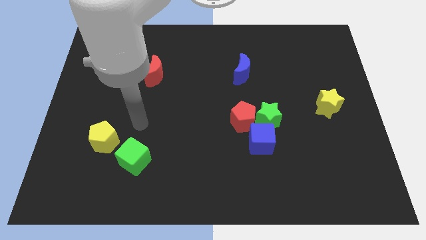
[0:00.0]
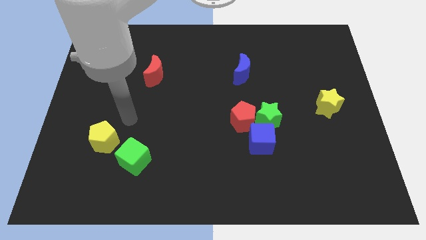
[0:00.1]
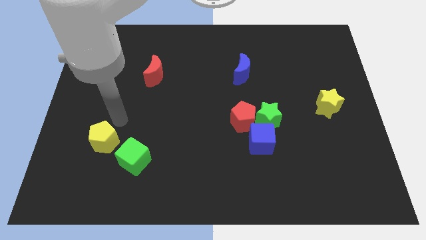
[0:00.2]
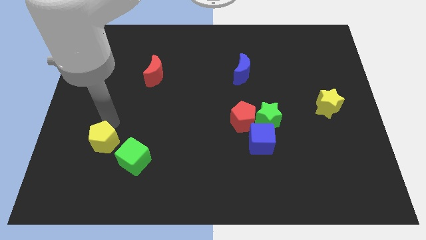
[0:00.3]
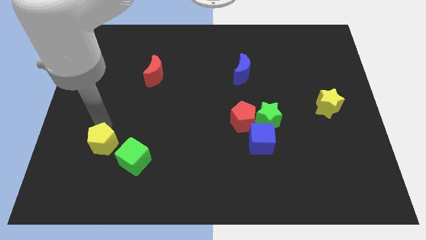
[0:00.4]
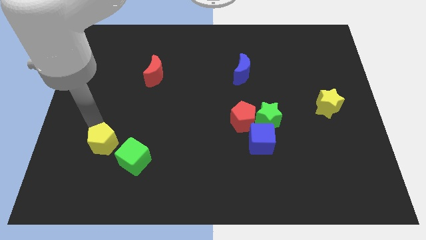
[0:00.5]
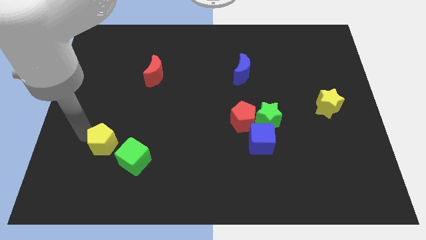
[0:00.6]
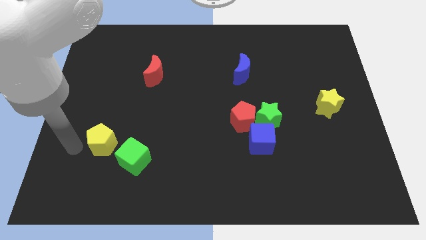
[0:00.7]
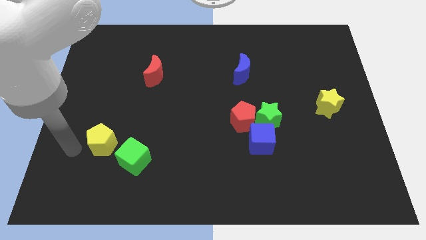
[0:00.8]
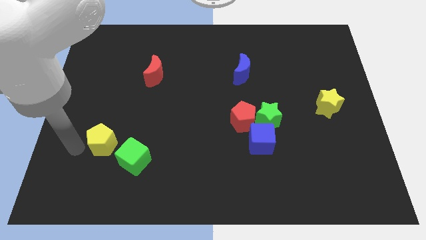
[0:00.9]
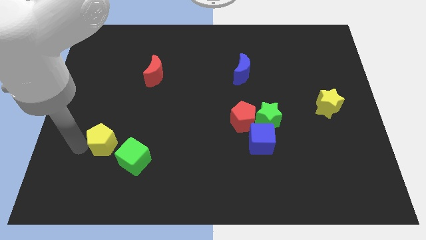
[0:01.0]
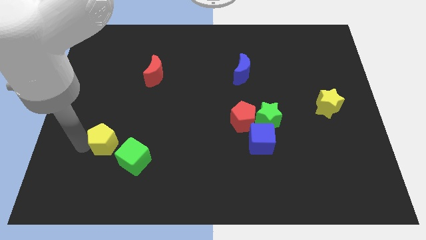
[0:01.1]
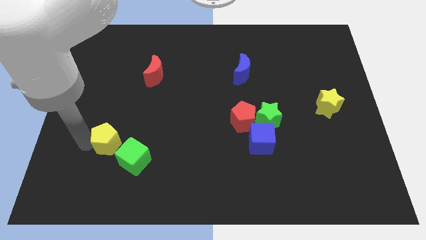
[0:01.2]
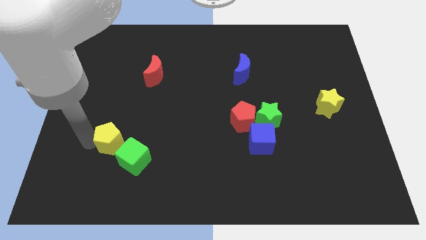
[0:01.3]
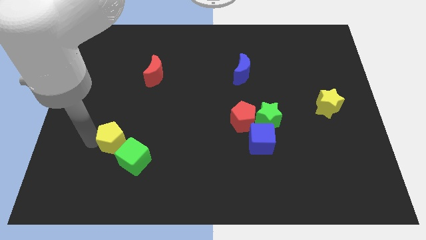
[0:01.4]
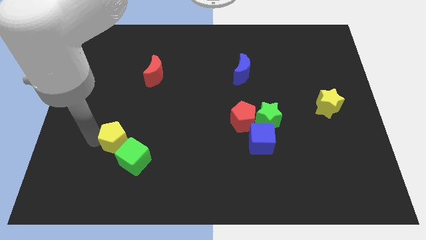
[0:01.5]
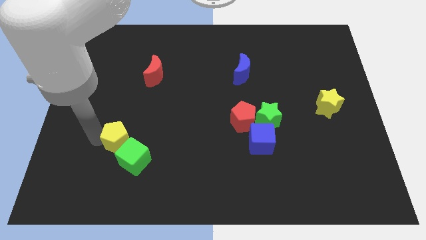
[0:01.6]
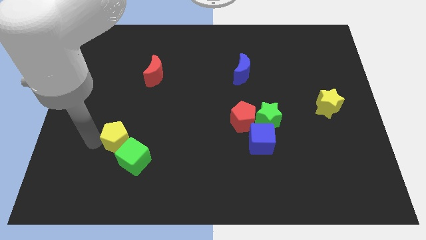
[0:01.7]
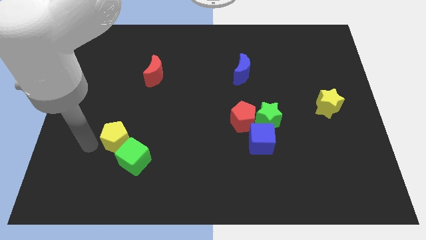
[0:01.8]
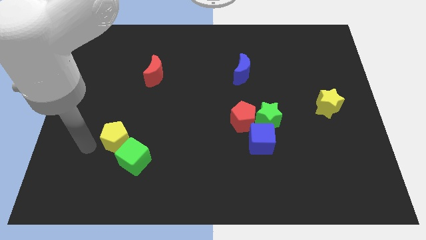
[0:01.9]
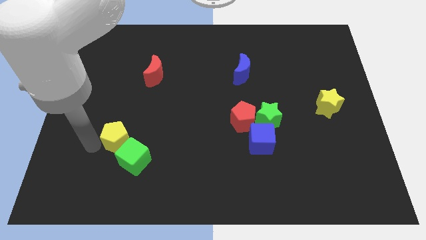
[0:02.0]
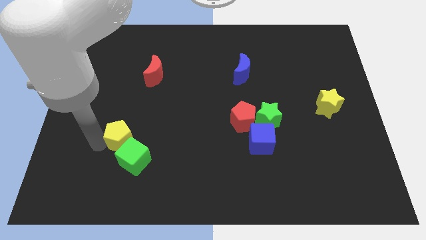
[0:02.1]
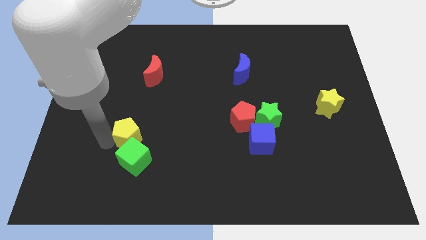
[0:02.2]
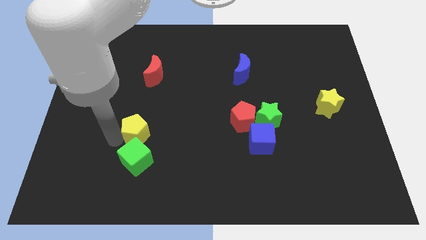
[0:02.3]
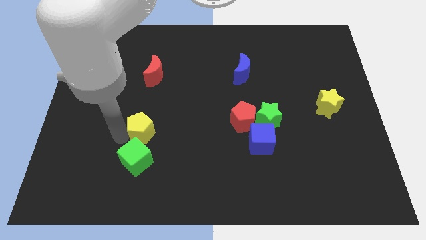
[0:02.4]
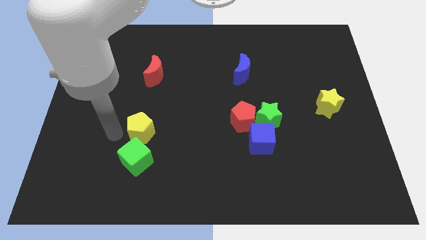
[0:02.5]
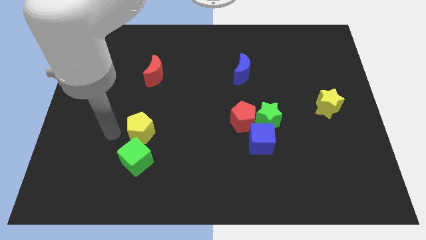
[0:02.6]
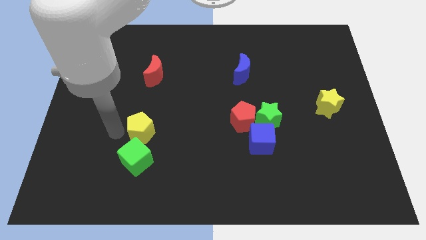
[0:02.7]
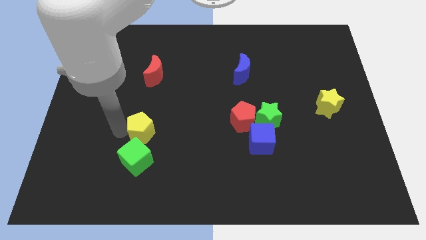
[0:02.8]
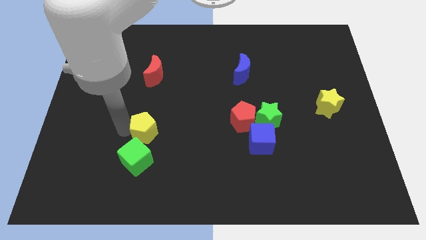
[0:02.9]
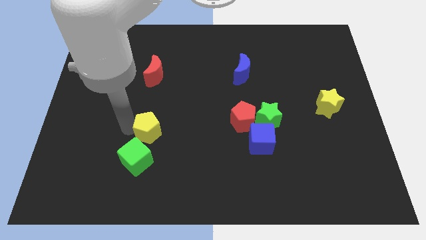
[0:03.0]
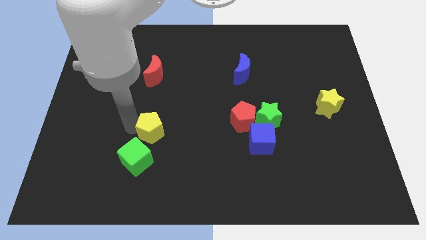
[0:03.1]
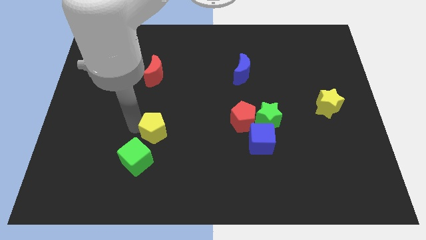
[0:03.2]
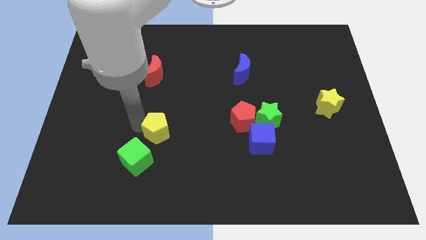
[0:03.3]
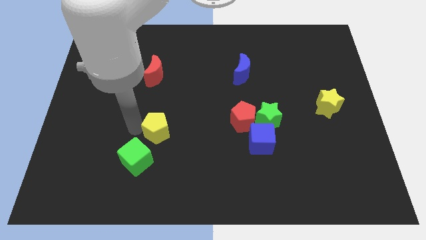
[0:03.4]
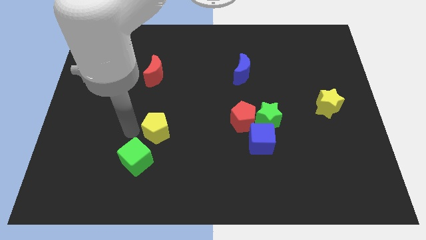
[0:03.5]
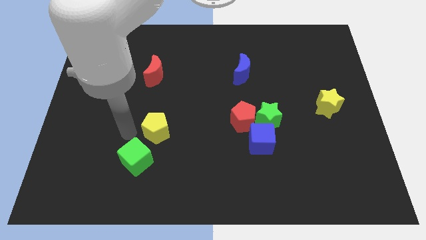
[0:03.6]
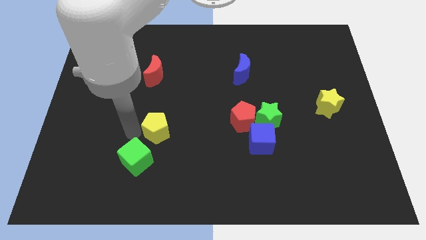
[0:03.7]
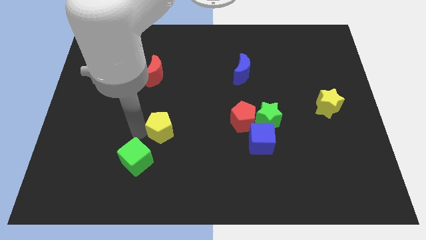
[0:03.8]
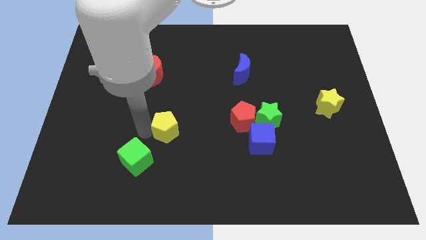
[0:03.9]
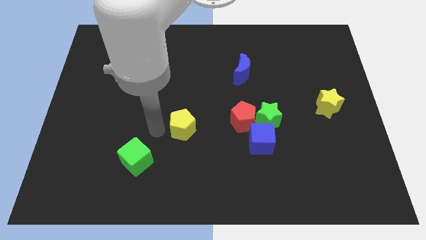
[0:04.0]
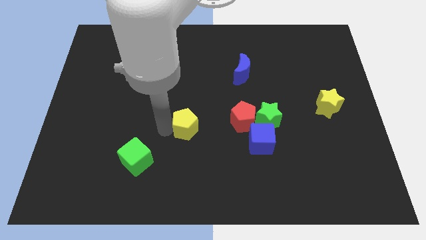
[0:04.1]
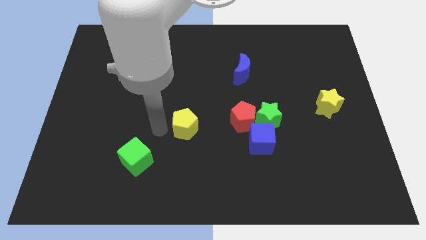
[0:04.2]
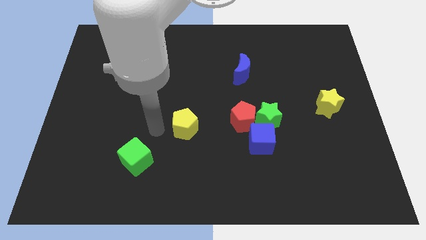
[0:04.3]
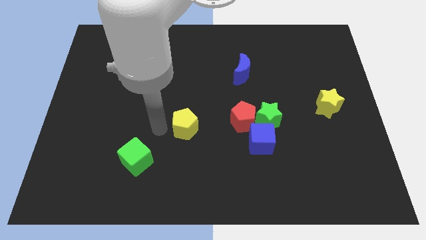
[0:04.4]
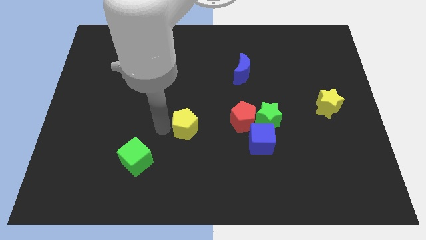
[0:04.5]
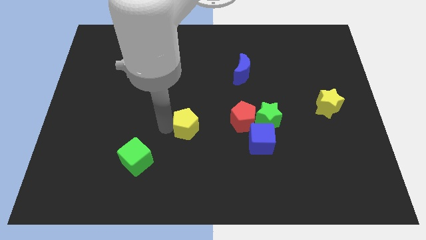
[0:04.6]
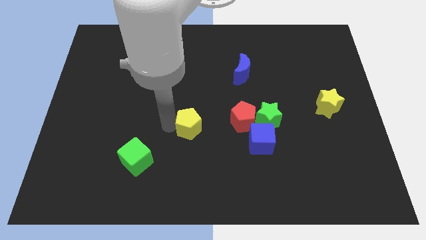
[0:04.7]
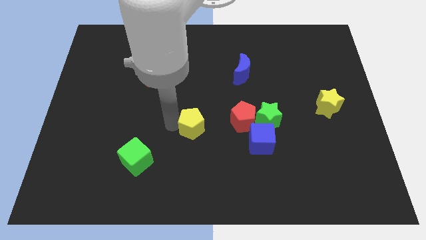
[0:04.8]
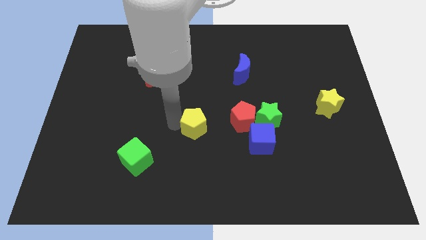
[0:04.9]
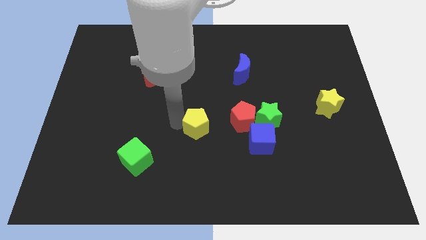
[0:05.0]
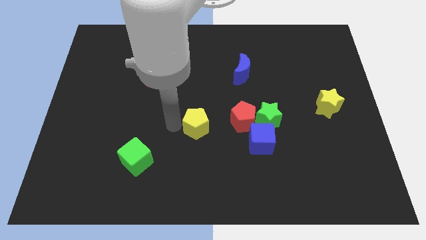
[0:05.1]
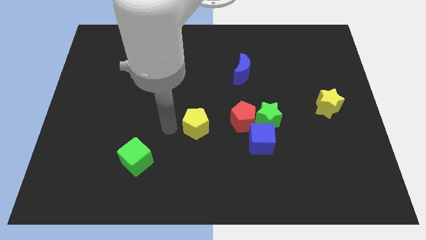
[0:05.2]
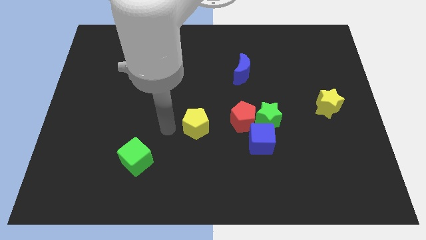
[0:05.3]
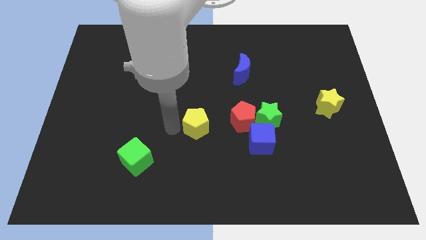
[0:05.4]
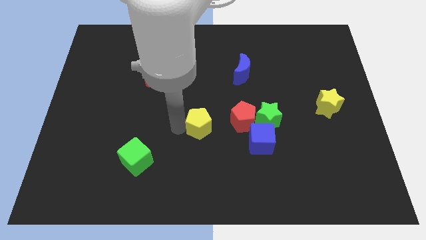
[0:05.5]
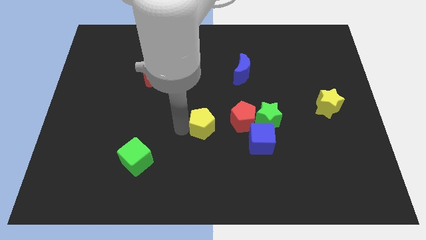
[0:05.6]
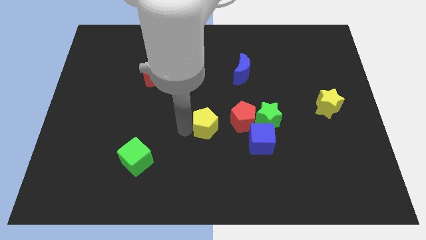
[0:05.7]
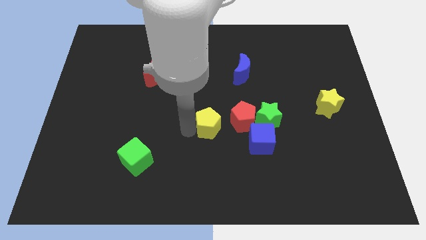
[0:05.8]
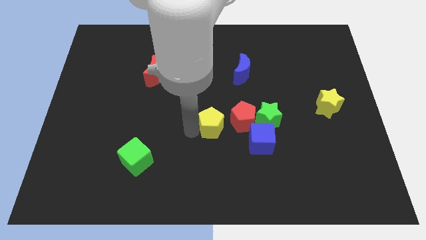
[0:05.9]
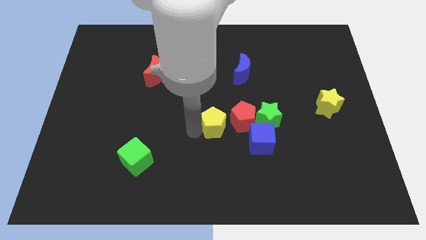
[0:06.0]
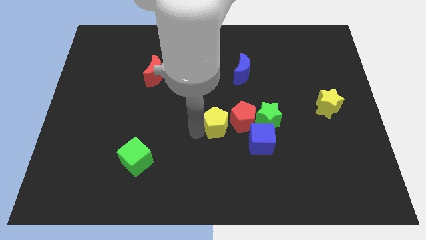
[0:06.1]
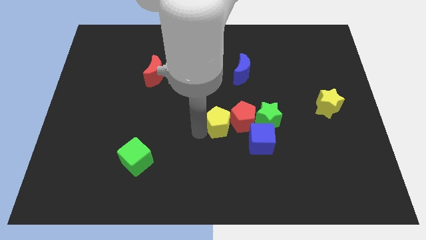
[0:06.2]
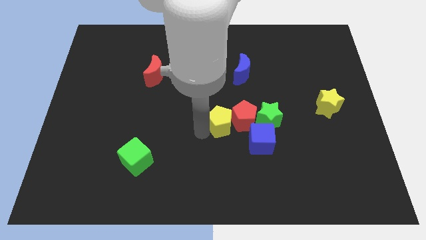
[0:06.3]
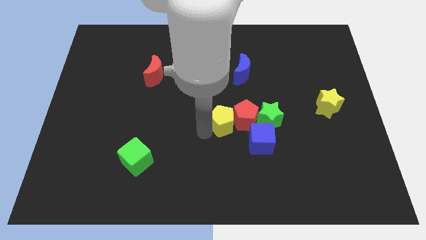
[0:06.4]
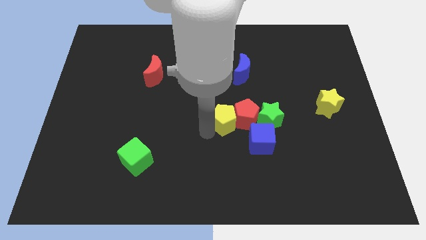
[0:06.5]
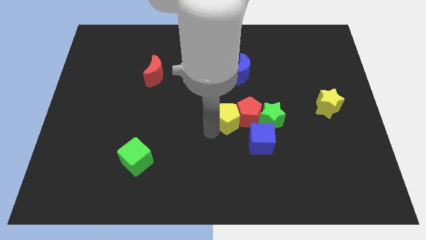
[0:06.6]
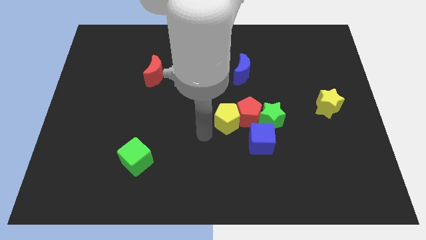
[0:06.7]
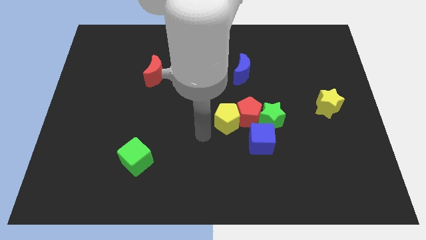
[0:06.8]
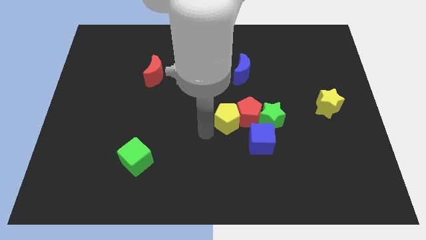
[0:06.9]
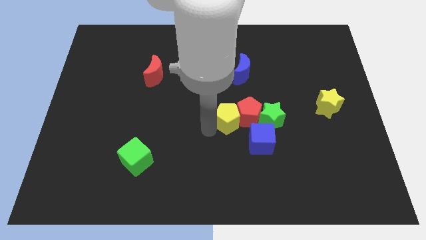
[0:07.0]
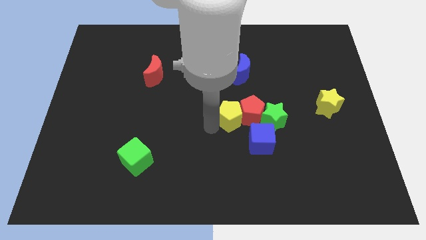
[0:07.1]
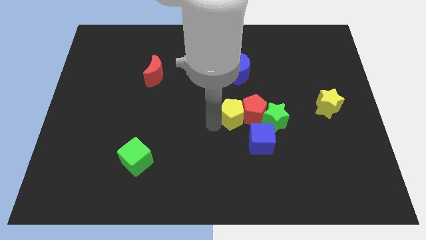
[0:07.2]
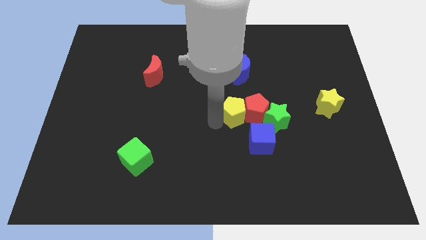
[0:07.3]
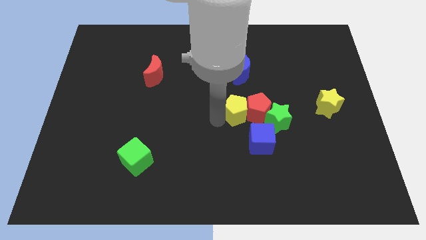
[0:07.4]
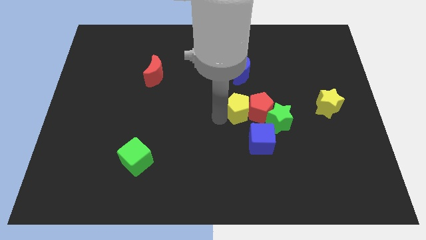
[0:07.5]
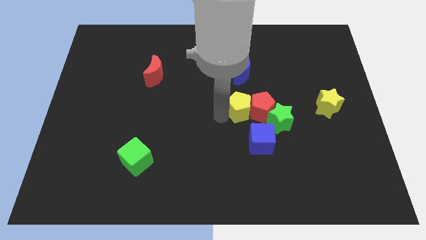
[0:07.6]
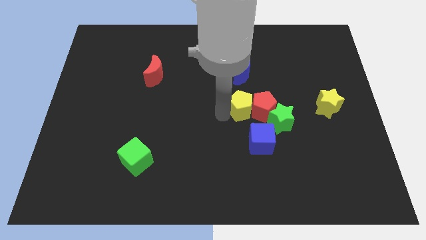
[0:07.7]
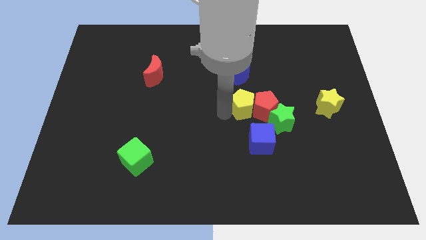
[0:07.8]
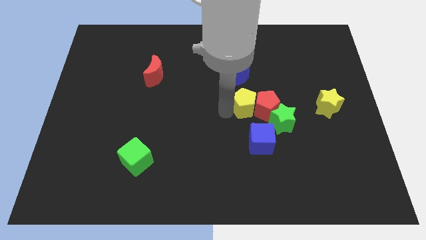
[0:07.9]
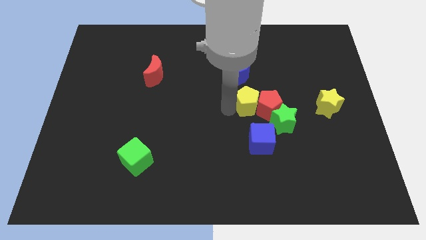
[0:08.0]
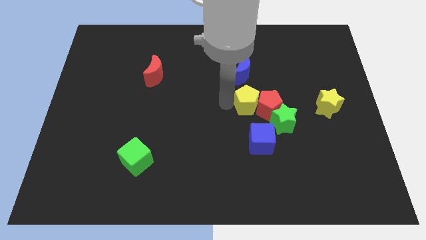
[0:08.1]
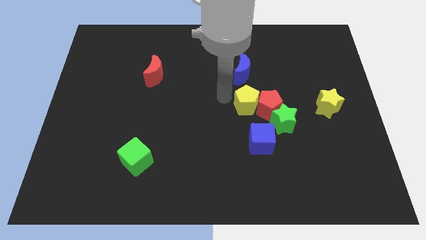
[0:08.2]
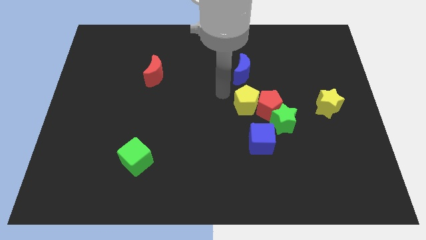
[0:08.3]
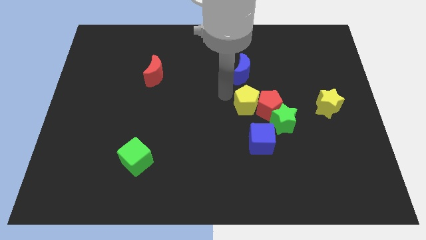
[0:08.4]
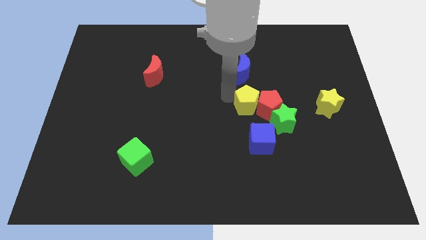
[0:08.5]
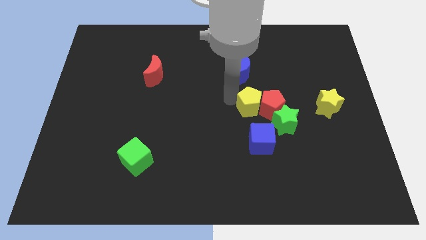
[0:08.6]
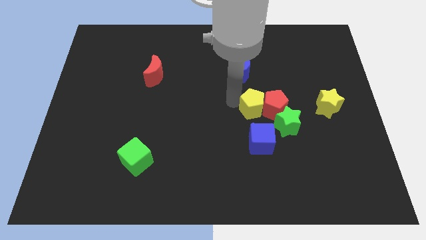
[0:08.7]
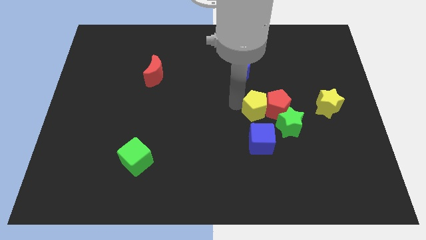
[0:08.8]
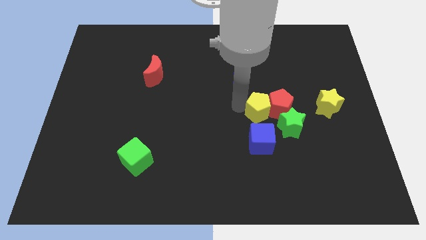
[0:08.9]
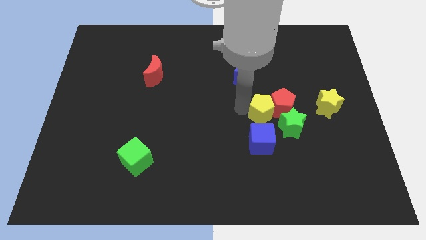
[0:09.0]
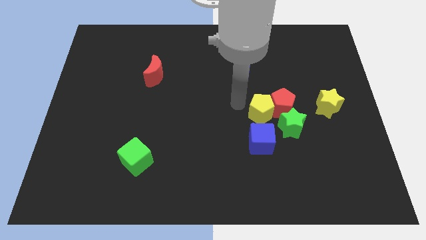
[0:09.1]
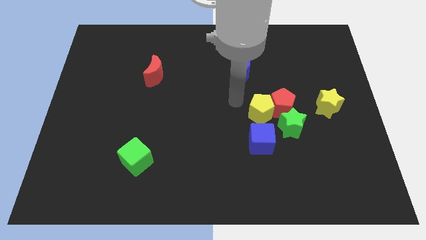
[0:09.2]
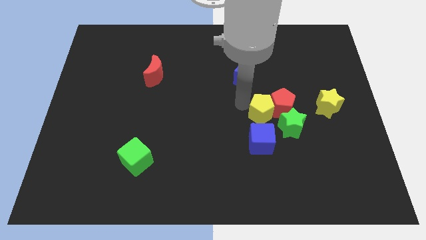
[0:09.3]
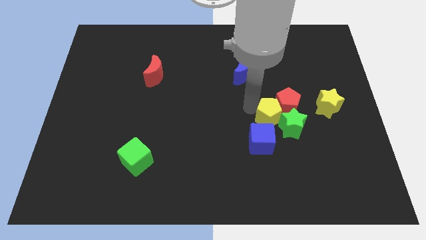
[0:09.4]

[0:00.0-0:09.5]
slide the yellow pentagon next to the green star
